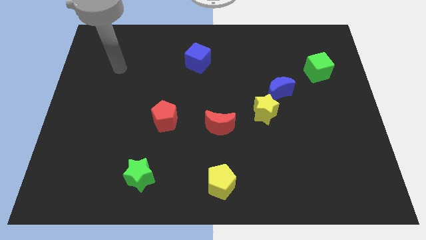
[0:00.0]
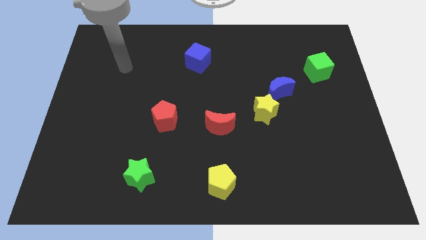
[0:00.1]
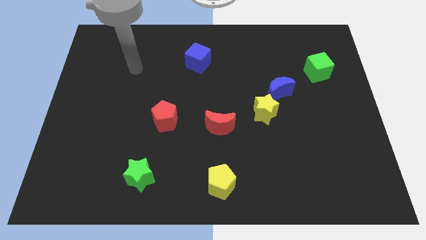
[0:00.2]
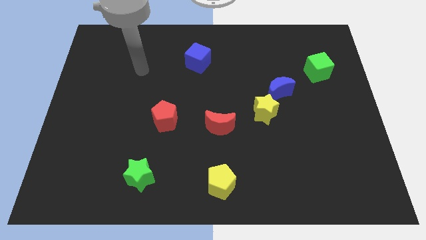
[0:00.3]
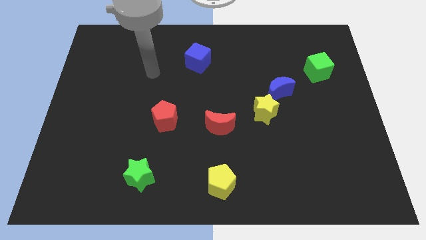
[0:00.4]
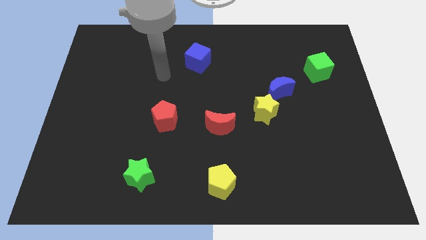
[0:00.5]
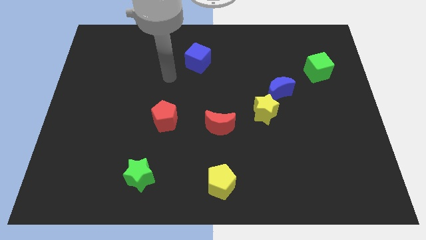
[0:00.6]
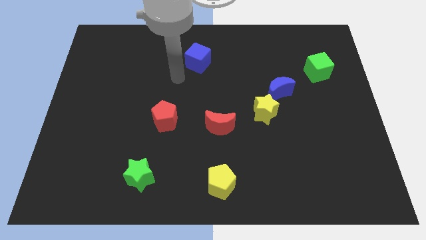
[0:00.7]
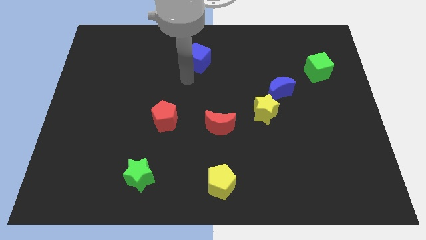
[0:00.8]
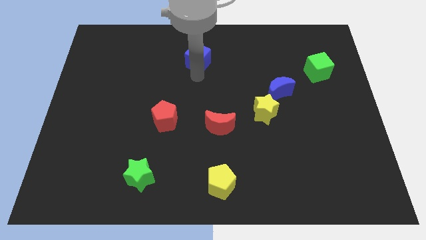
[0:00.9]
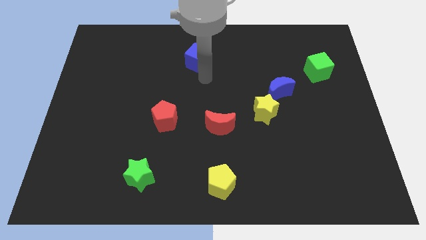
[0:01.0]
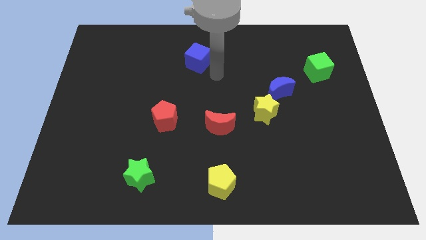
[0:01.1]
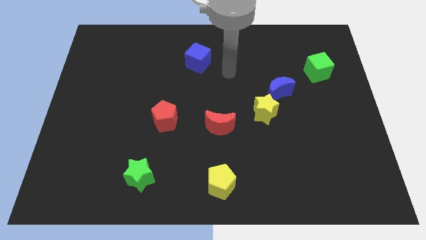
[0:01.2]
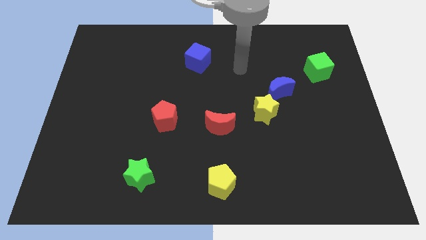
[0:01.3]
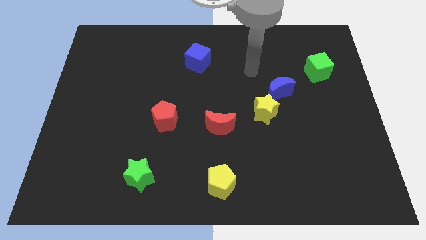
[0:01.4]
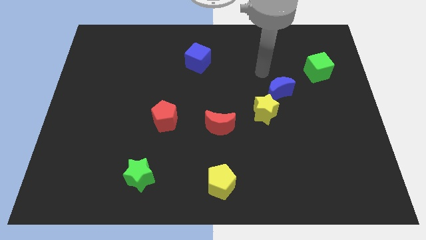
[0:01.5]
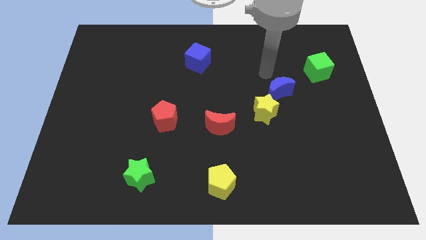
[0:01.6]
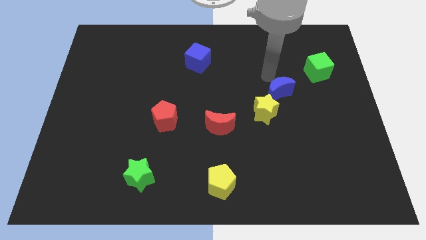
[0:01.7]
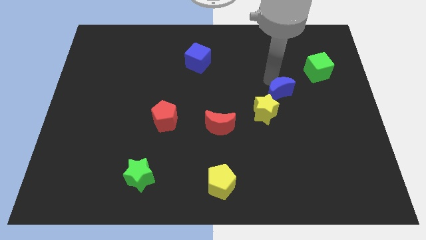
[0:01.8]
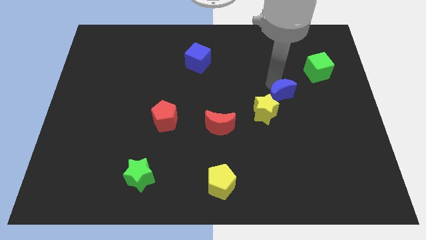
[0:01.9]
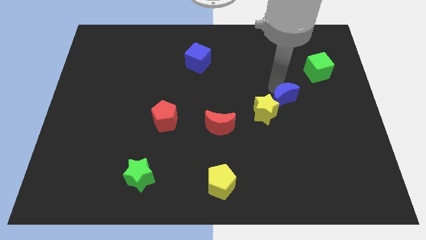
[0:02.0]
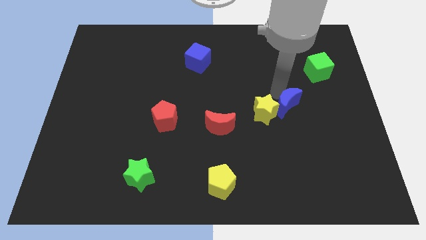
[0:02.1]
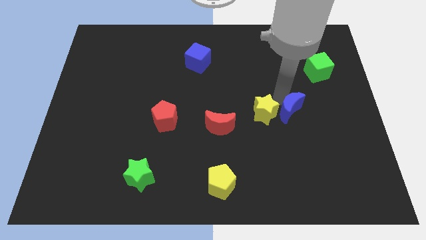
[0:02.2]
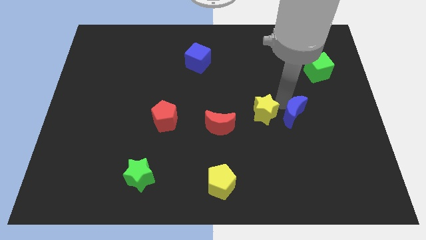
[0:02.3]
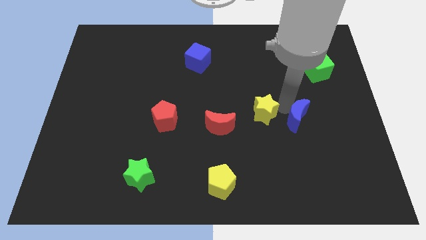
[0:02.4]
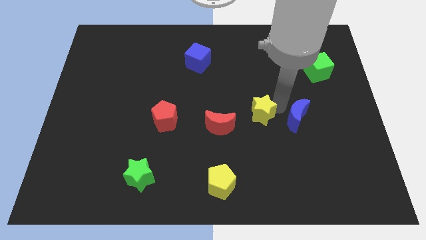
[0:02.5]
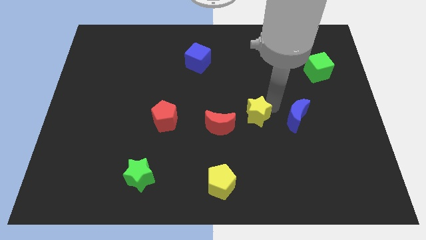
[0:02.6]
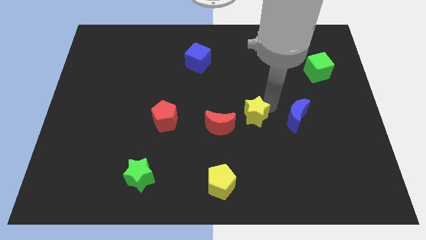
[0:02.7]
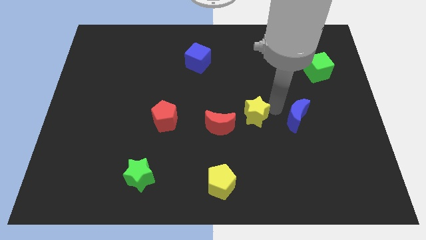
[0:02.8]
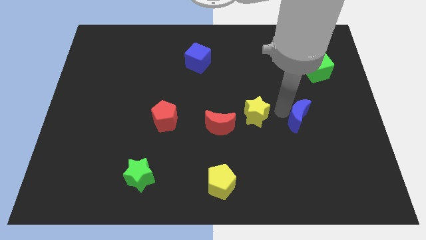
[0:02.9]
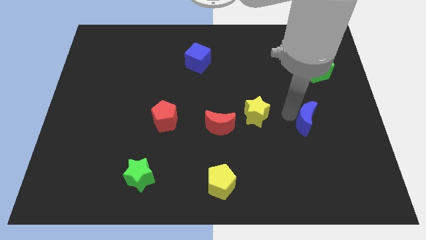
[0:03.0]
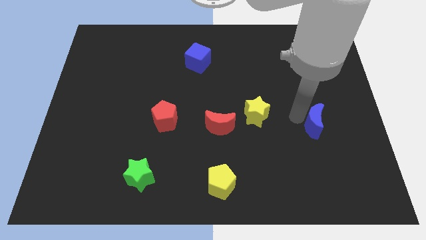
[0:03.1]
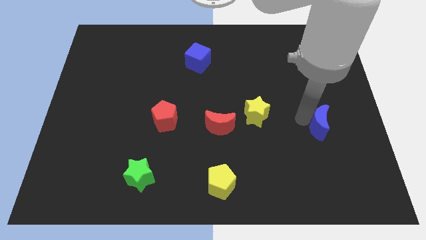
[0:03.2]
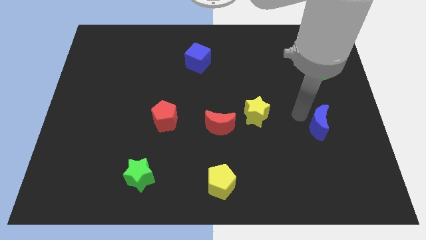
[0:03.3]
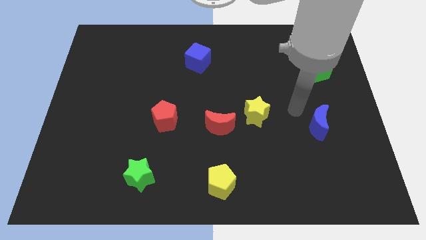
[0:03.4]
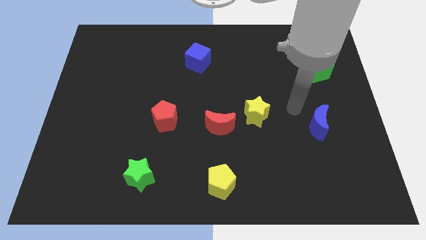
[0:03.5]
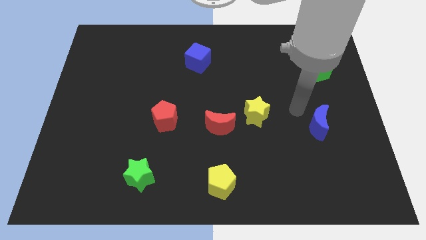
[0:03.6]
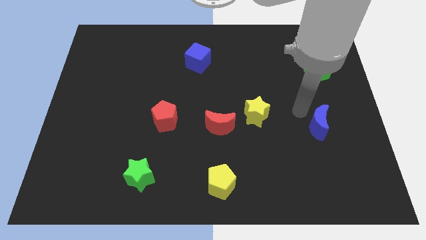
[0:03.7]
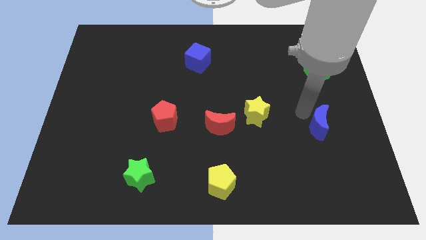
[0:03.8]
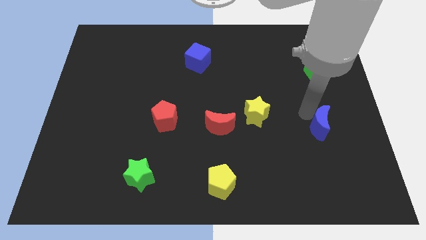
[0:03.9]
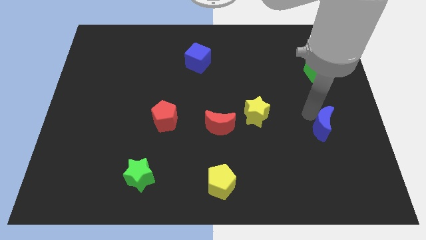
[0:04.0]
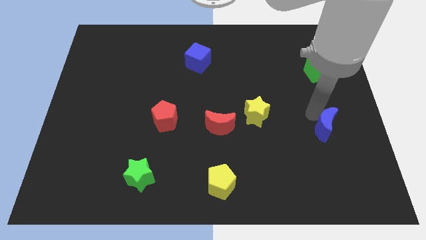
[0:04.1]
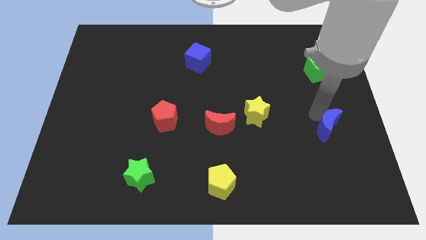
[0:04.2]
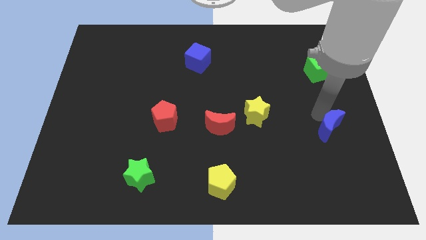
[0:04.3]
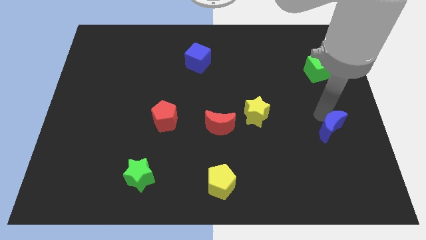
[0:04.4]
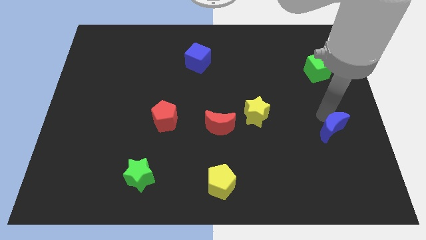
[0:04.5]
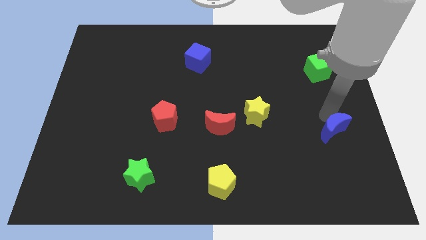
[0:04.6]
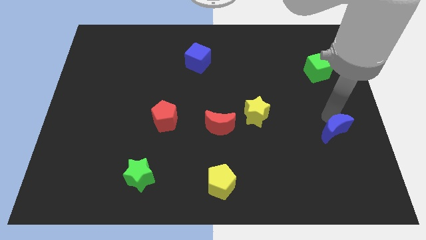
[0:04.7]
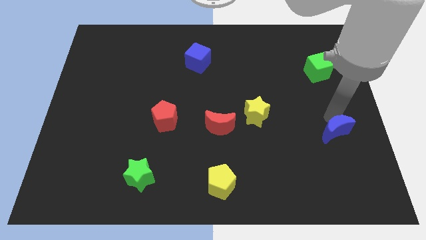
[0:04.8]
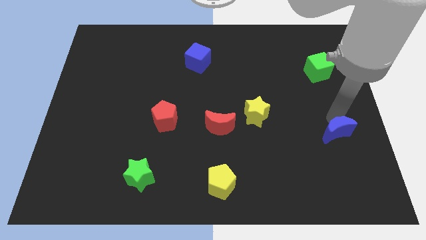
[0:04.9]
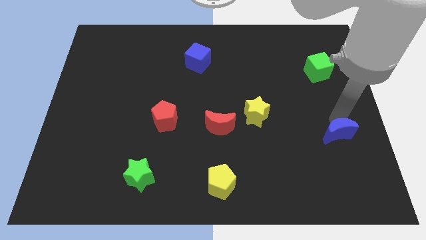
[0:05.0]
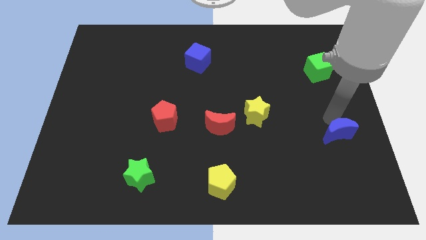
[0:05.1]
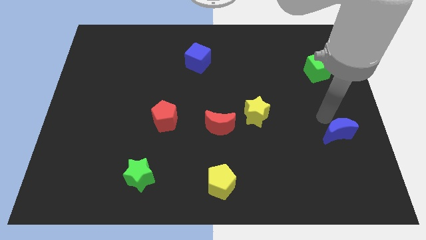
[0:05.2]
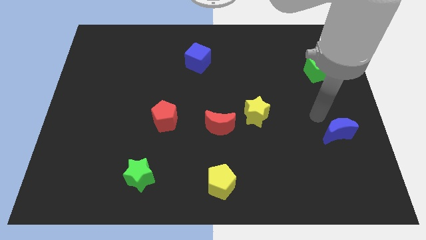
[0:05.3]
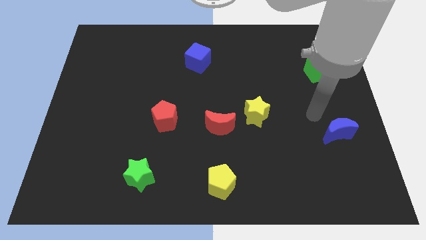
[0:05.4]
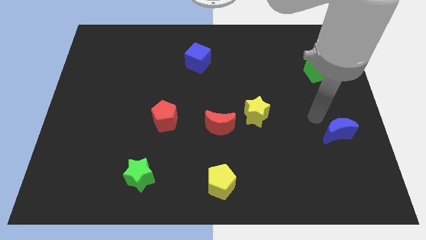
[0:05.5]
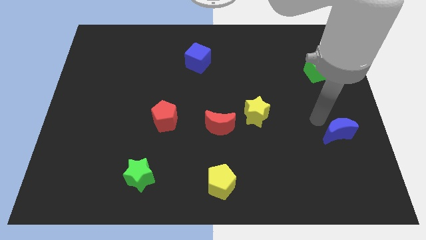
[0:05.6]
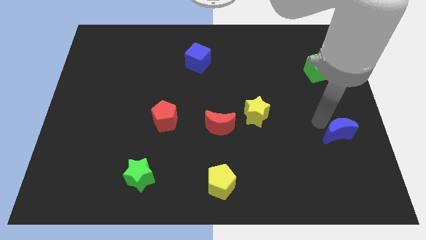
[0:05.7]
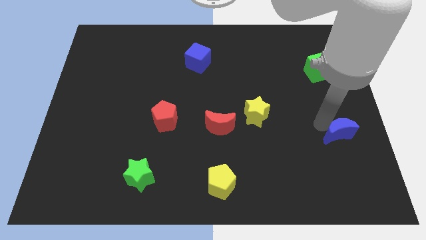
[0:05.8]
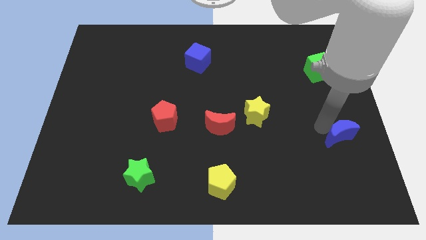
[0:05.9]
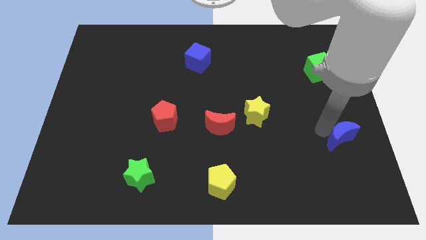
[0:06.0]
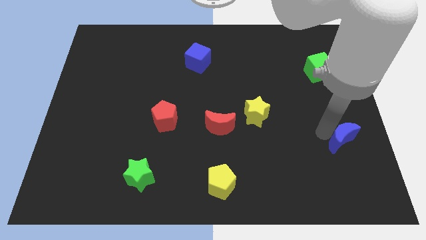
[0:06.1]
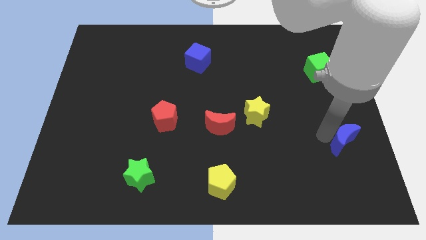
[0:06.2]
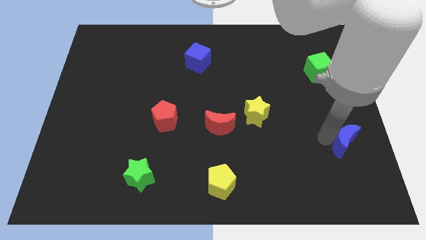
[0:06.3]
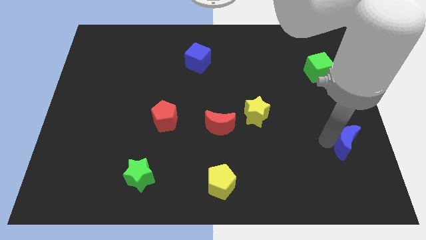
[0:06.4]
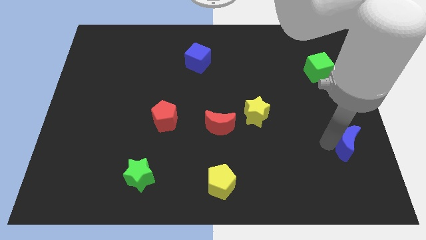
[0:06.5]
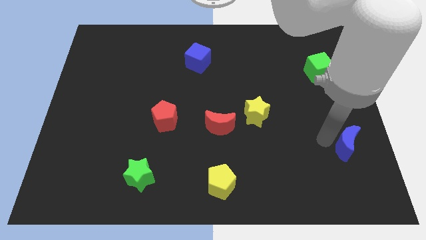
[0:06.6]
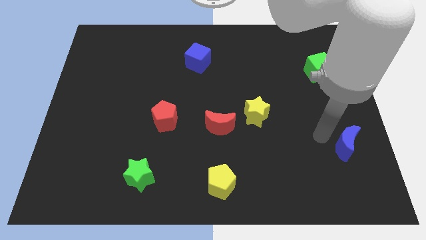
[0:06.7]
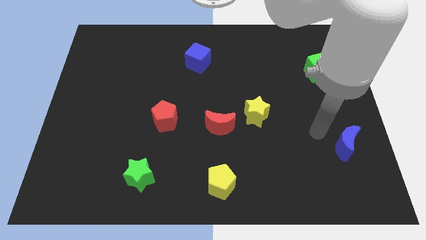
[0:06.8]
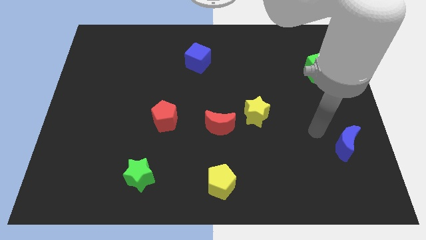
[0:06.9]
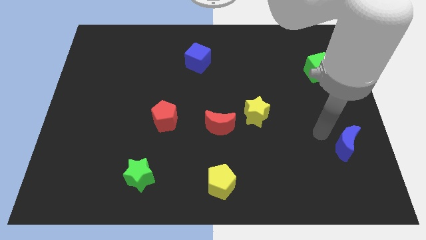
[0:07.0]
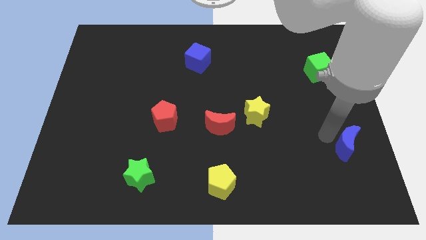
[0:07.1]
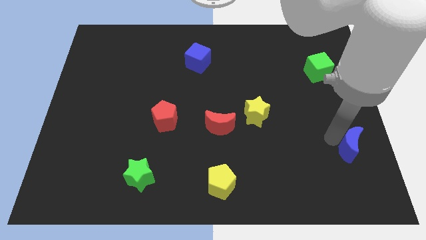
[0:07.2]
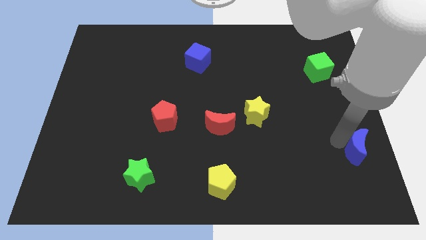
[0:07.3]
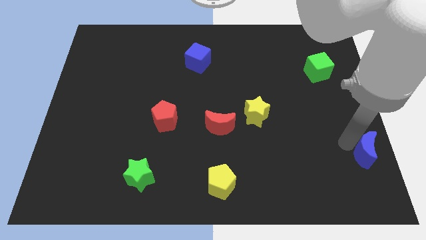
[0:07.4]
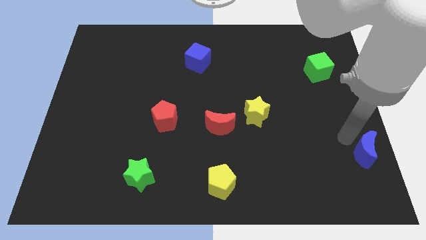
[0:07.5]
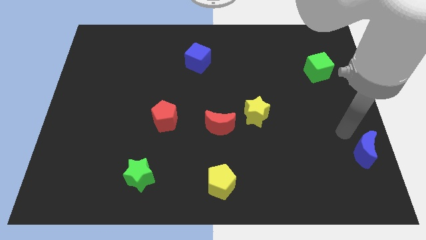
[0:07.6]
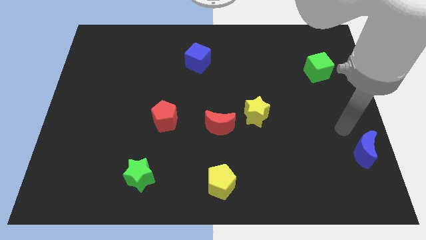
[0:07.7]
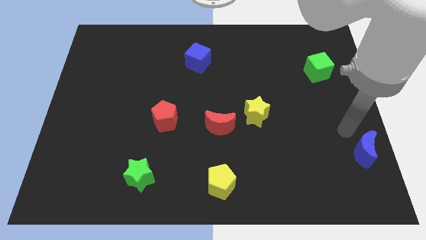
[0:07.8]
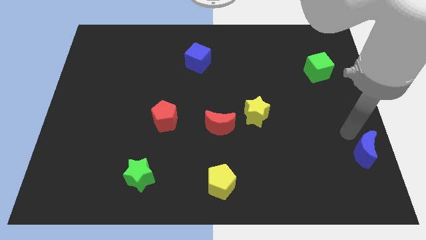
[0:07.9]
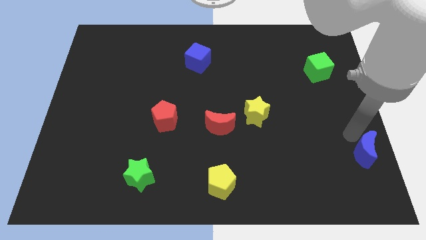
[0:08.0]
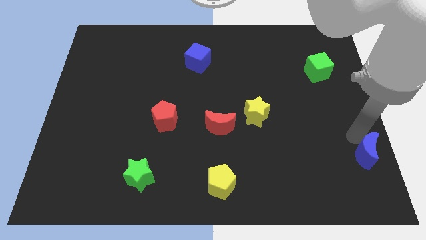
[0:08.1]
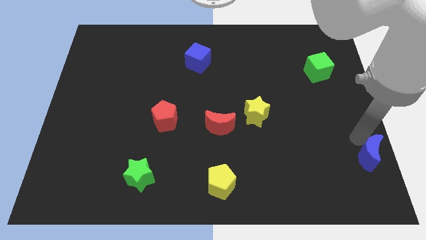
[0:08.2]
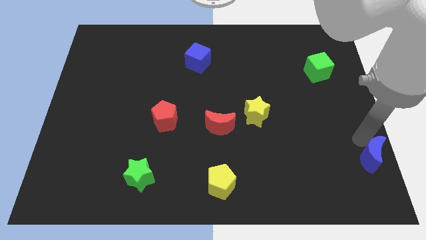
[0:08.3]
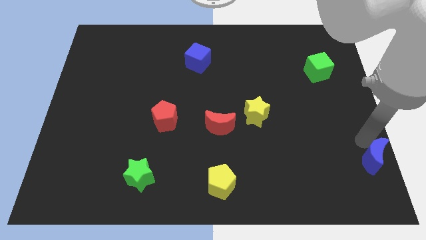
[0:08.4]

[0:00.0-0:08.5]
put the blue moon to the bottom right
